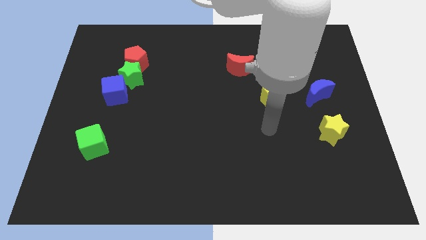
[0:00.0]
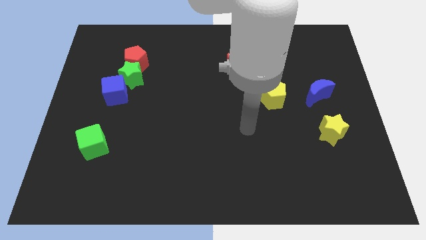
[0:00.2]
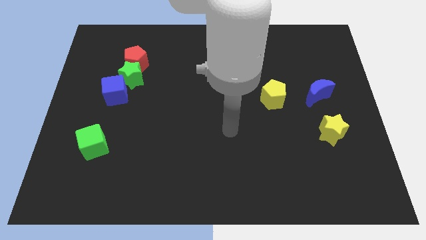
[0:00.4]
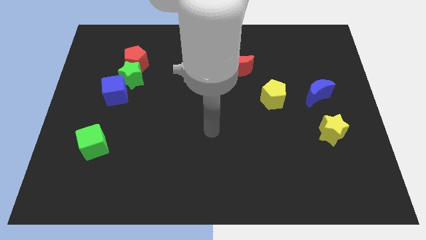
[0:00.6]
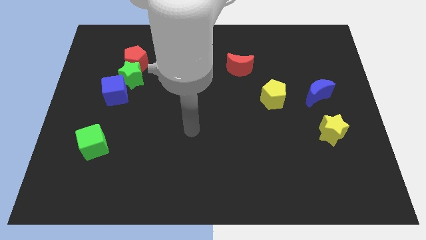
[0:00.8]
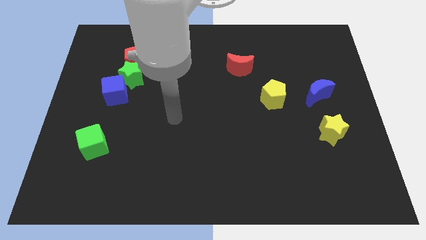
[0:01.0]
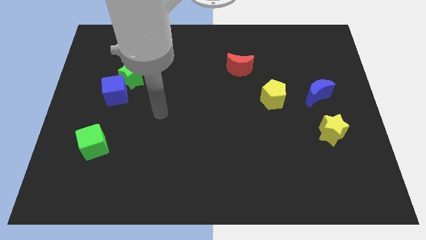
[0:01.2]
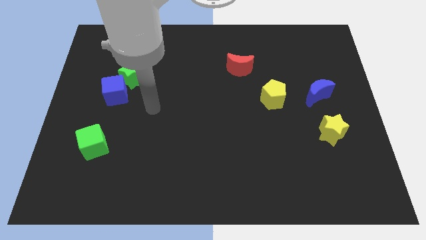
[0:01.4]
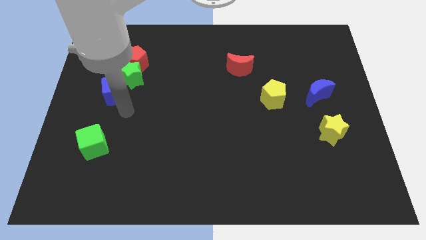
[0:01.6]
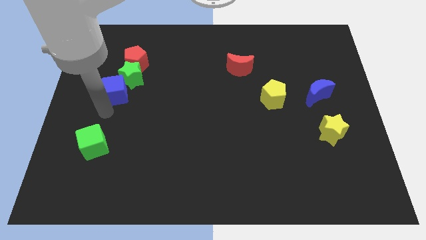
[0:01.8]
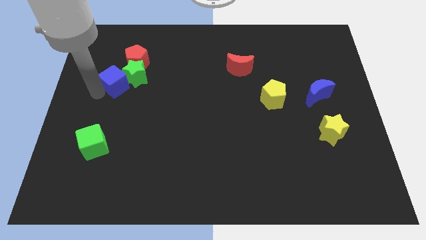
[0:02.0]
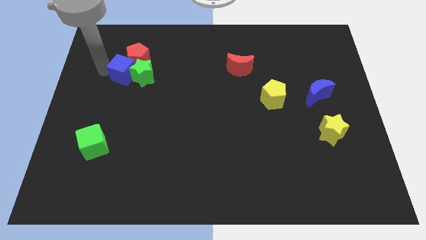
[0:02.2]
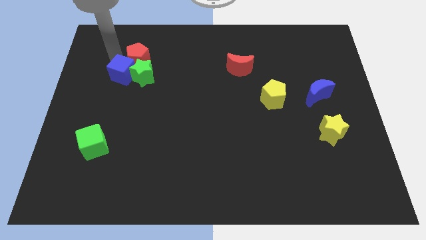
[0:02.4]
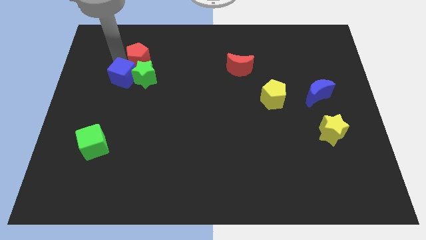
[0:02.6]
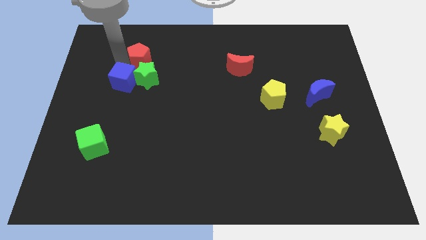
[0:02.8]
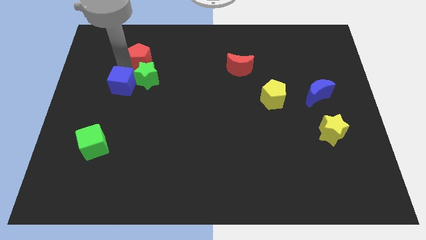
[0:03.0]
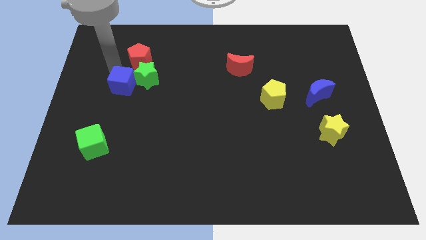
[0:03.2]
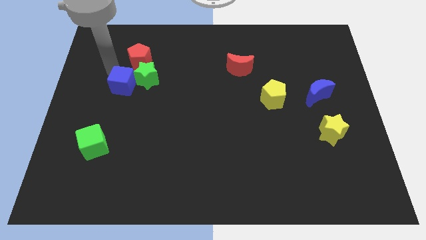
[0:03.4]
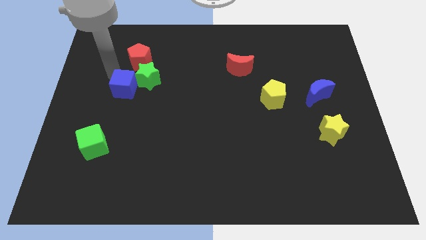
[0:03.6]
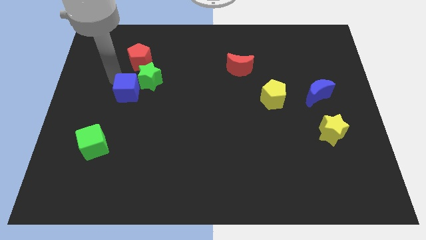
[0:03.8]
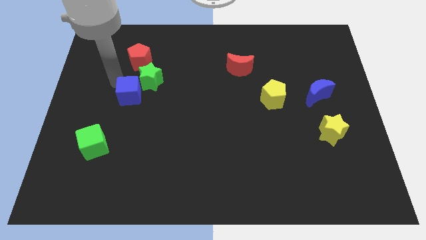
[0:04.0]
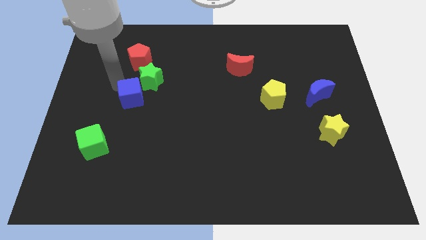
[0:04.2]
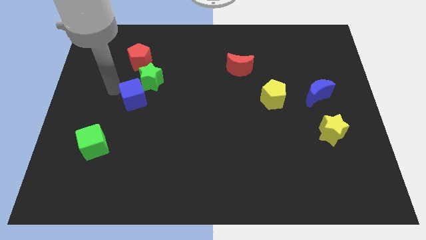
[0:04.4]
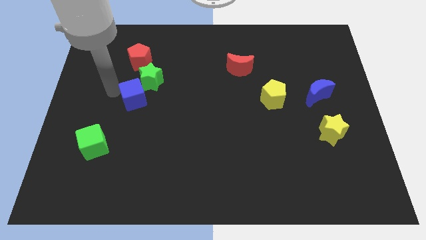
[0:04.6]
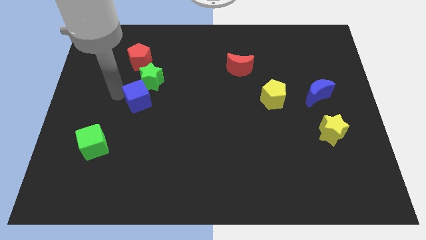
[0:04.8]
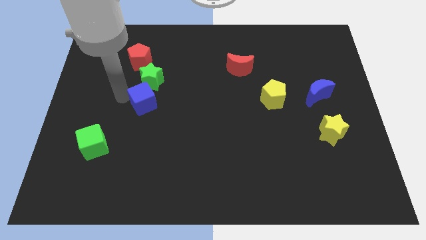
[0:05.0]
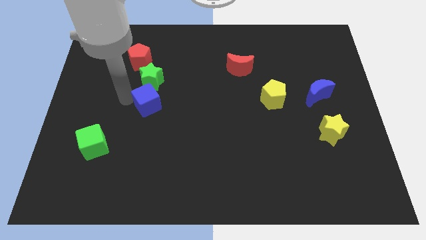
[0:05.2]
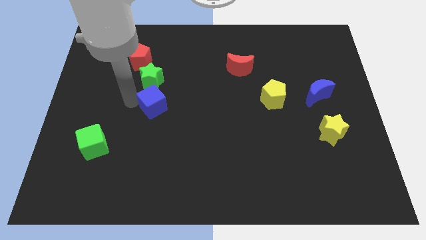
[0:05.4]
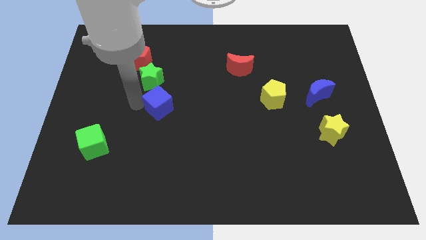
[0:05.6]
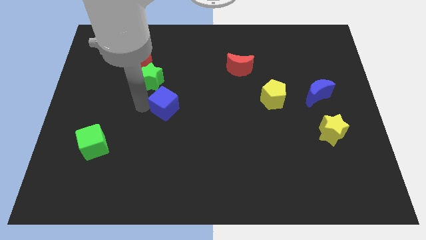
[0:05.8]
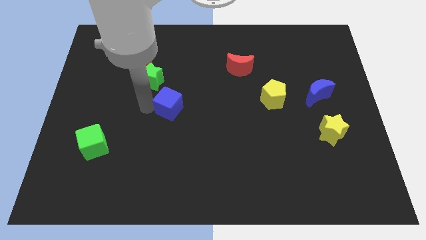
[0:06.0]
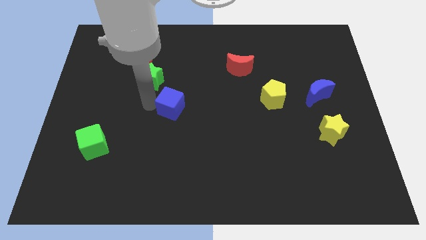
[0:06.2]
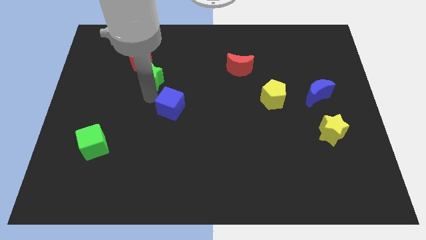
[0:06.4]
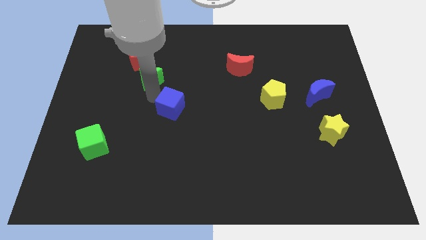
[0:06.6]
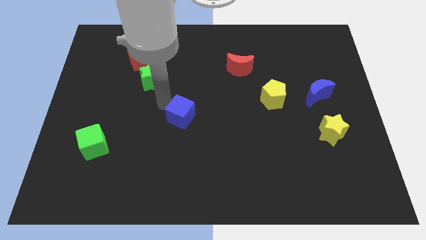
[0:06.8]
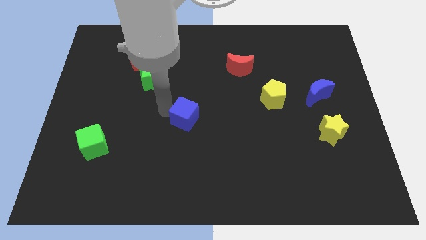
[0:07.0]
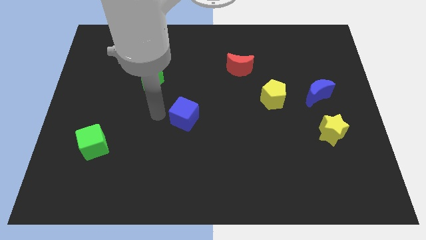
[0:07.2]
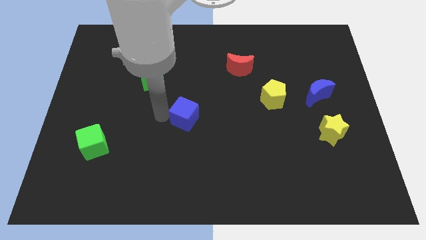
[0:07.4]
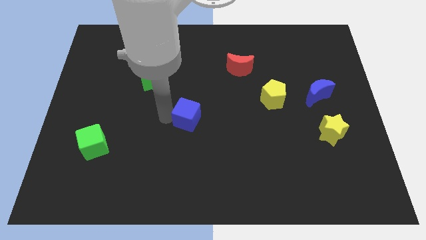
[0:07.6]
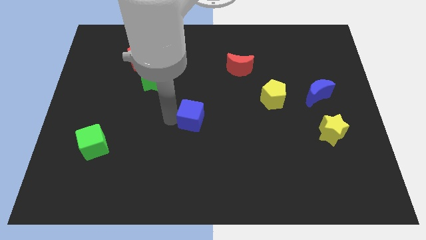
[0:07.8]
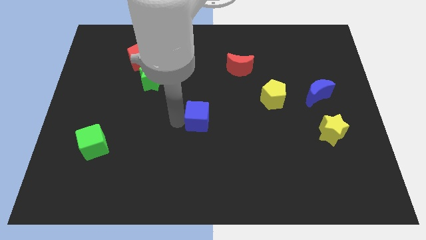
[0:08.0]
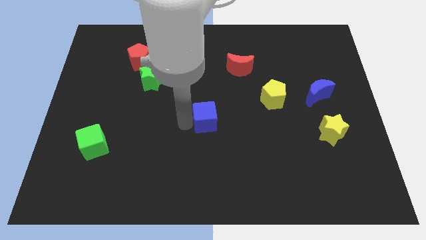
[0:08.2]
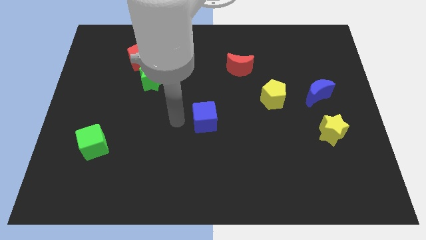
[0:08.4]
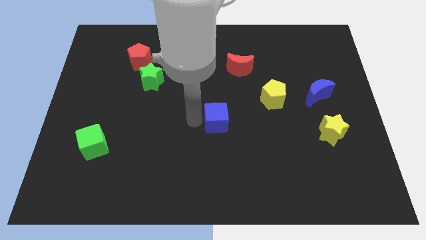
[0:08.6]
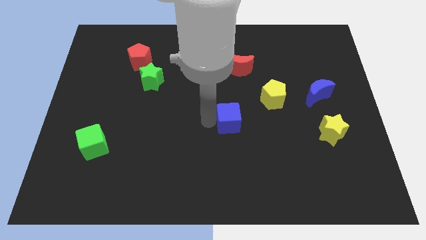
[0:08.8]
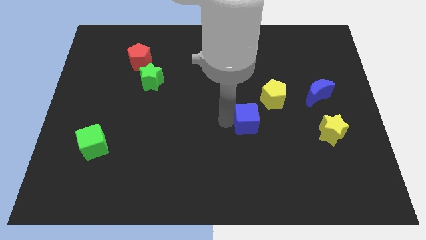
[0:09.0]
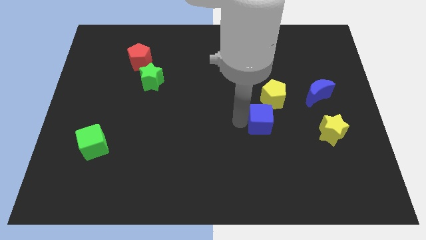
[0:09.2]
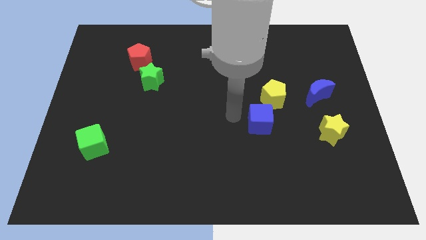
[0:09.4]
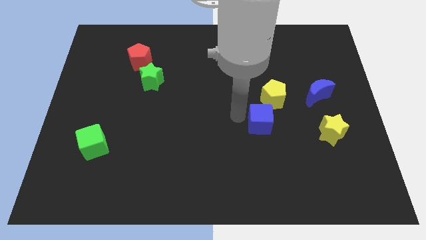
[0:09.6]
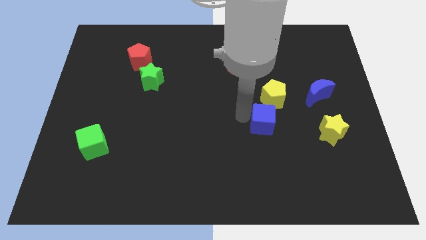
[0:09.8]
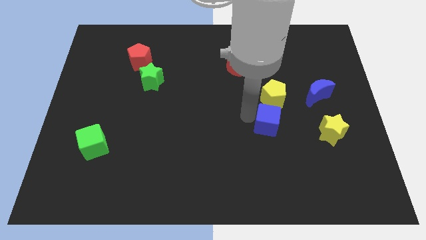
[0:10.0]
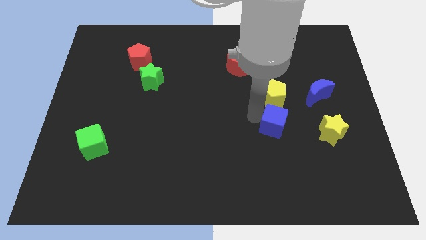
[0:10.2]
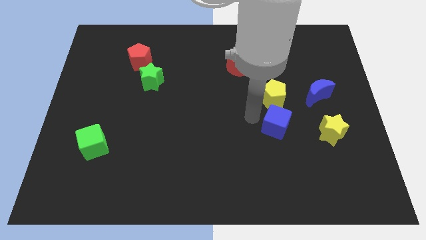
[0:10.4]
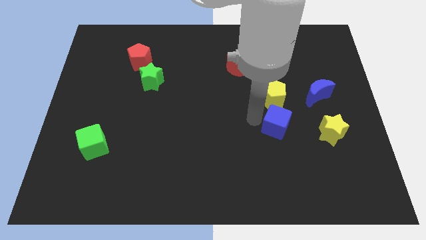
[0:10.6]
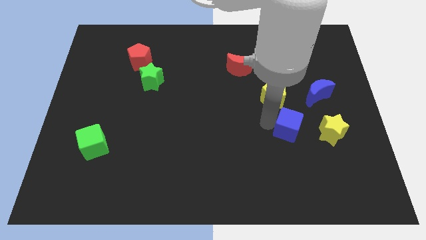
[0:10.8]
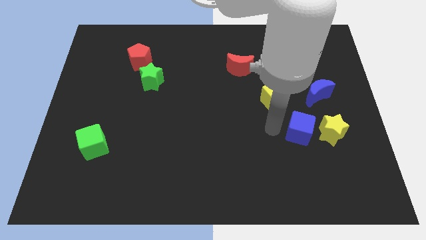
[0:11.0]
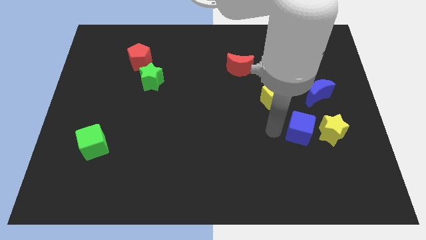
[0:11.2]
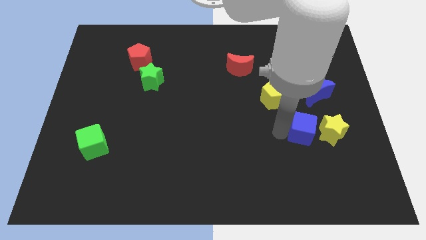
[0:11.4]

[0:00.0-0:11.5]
slide the blue cube next to the yellow star
